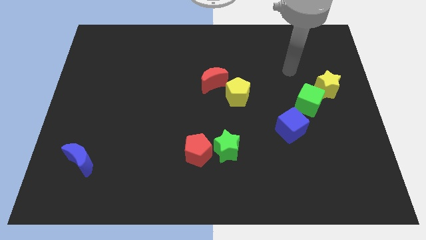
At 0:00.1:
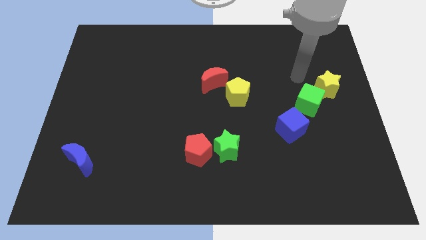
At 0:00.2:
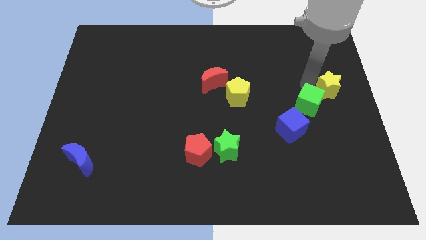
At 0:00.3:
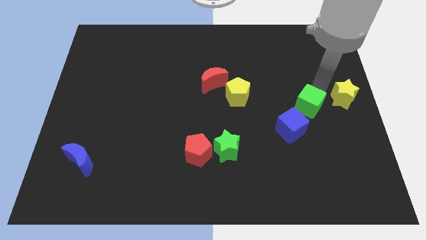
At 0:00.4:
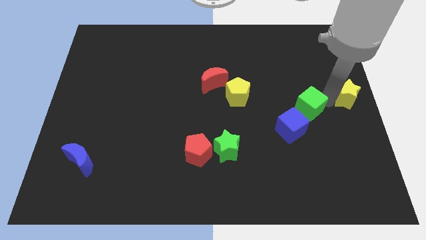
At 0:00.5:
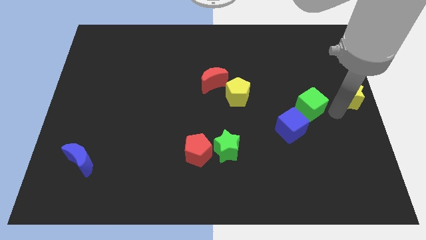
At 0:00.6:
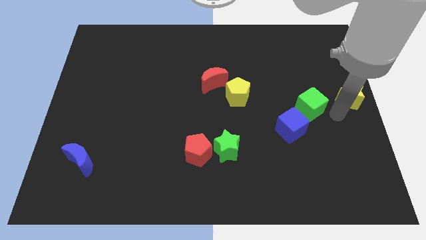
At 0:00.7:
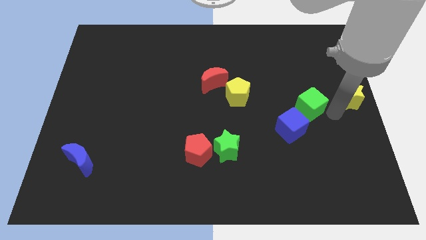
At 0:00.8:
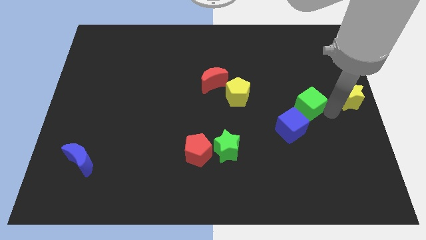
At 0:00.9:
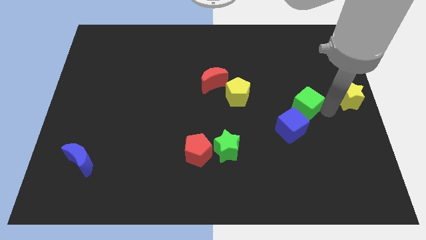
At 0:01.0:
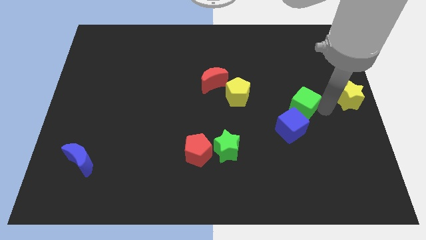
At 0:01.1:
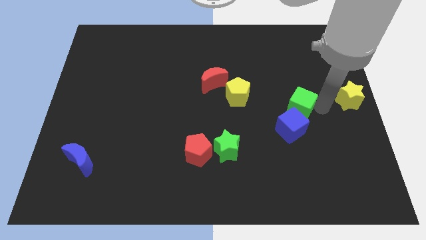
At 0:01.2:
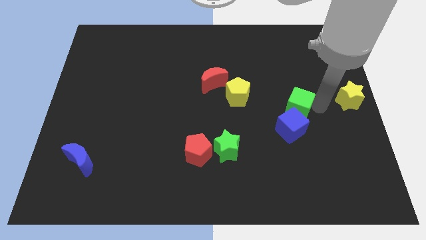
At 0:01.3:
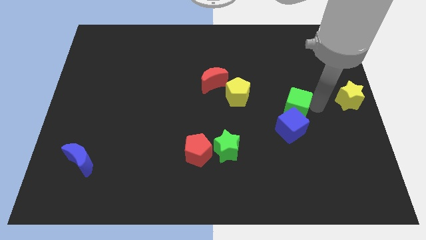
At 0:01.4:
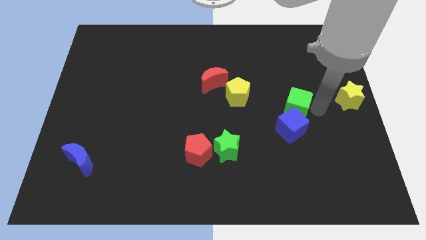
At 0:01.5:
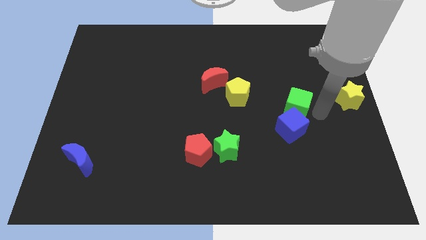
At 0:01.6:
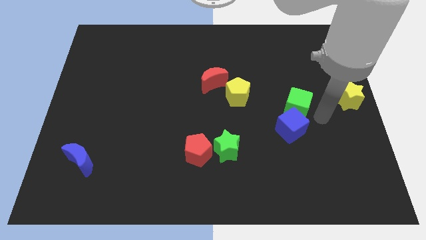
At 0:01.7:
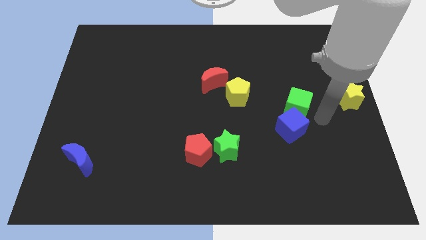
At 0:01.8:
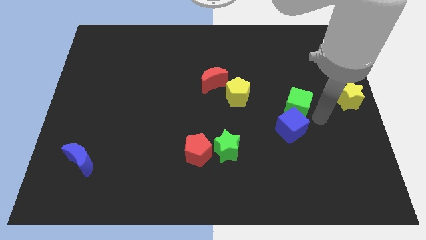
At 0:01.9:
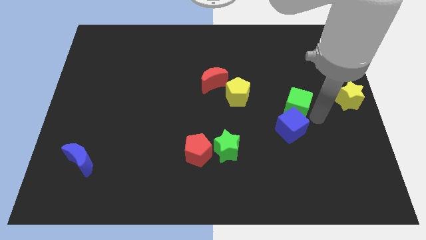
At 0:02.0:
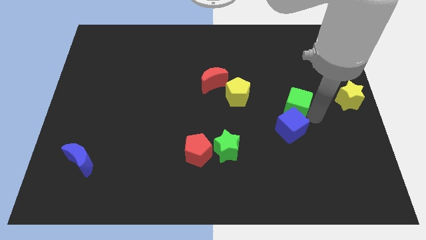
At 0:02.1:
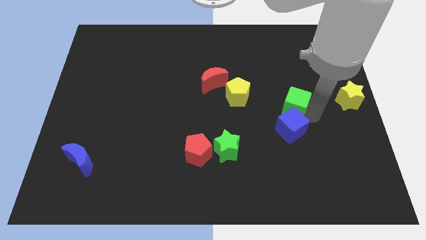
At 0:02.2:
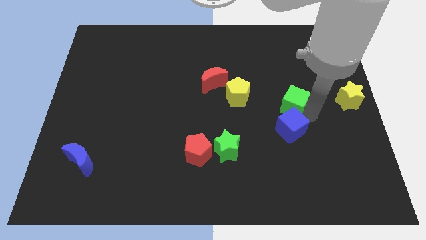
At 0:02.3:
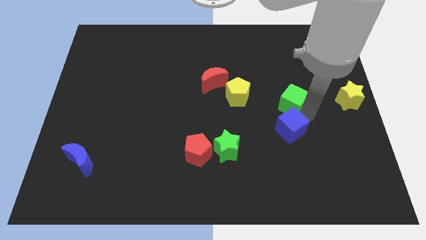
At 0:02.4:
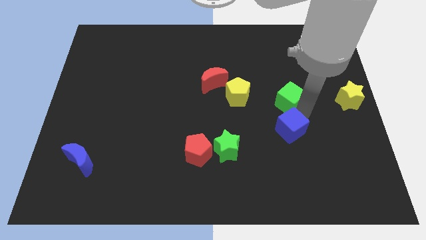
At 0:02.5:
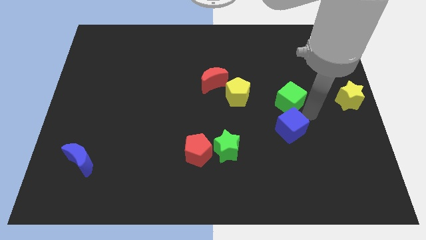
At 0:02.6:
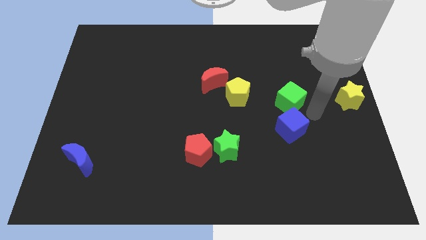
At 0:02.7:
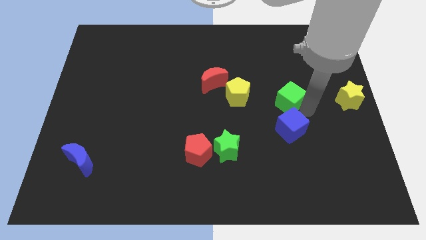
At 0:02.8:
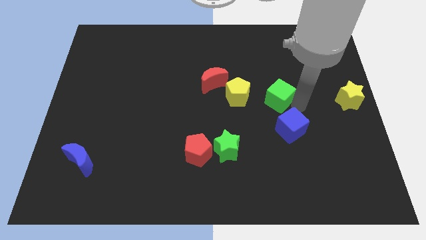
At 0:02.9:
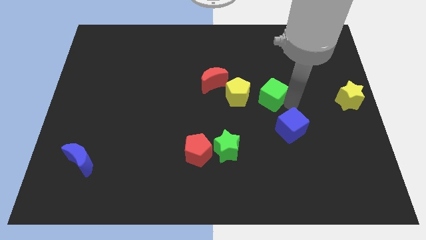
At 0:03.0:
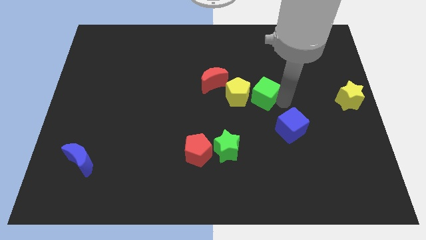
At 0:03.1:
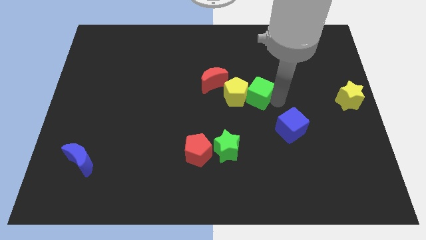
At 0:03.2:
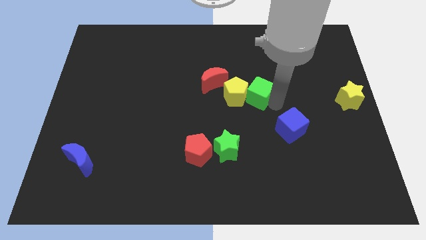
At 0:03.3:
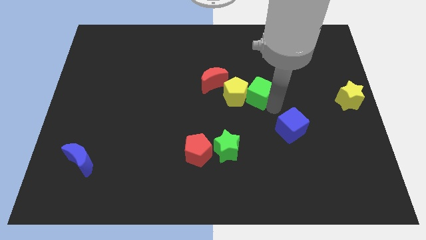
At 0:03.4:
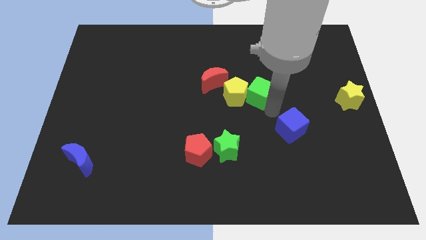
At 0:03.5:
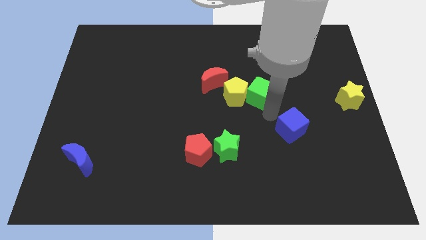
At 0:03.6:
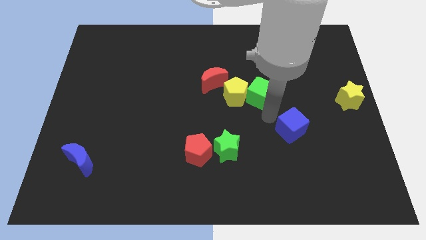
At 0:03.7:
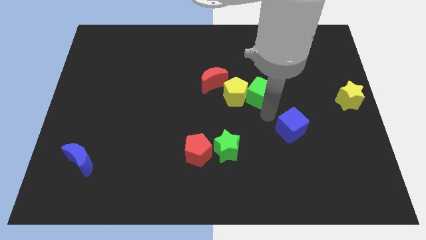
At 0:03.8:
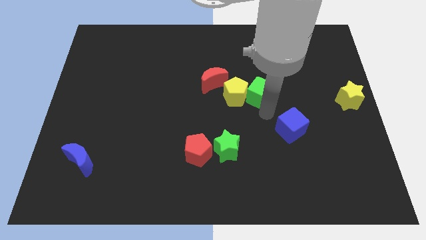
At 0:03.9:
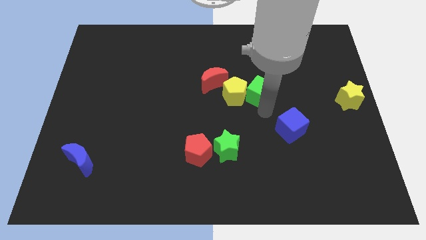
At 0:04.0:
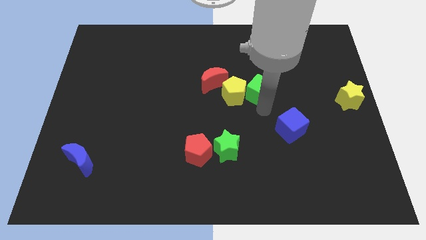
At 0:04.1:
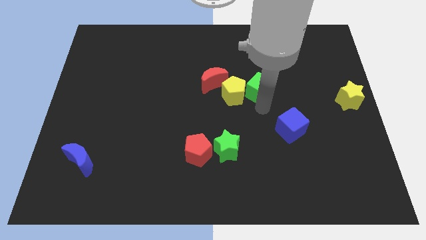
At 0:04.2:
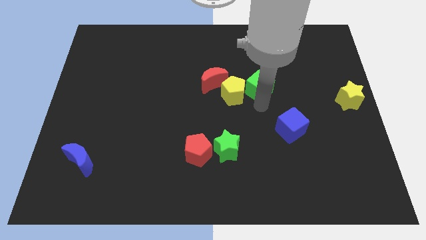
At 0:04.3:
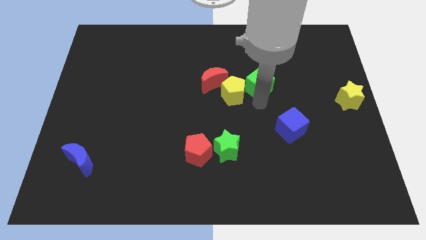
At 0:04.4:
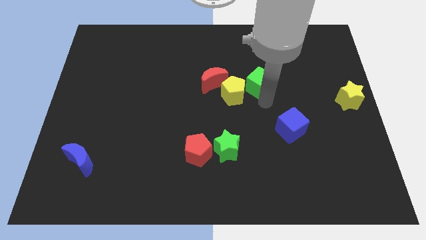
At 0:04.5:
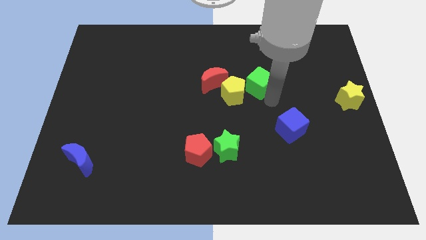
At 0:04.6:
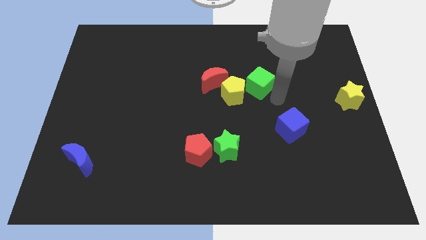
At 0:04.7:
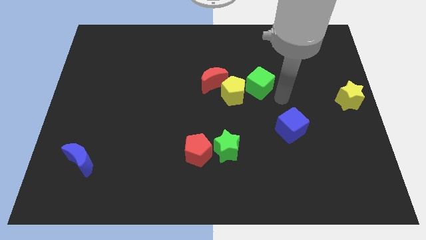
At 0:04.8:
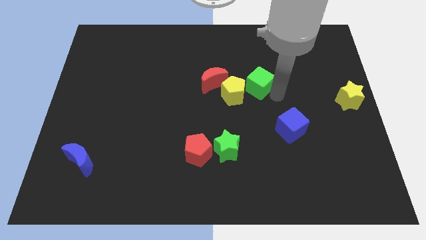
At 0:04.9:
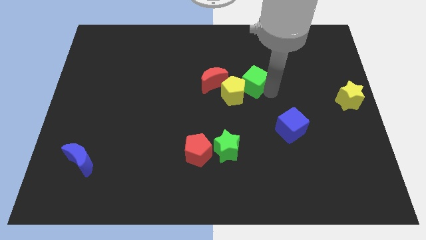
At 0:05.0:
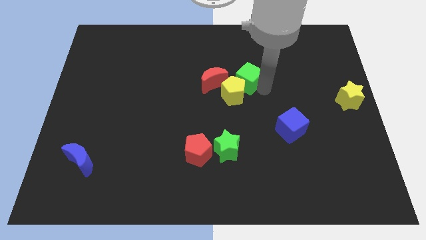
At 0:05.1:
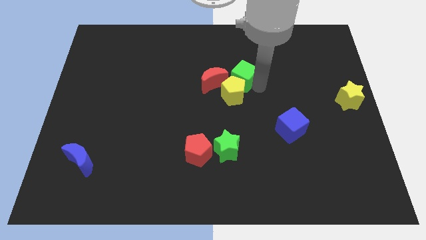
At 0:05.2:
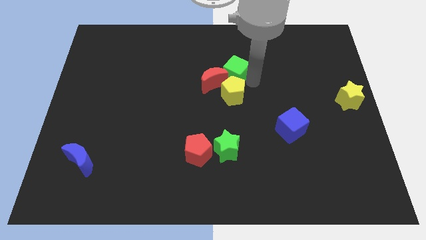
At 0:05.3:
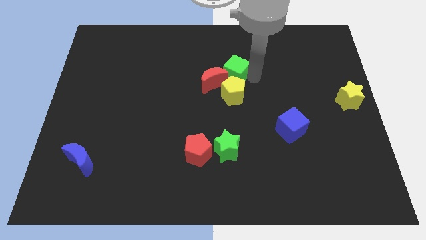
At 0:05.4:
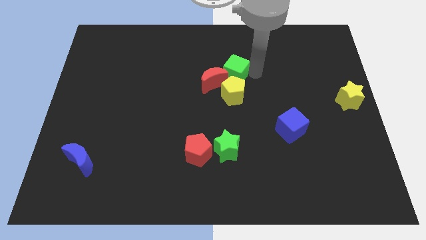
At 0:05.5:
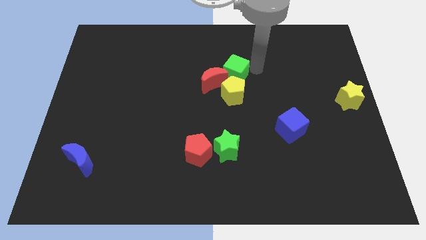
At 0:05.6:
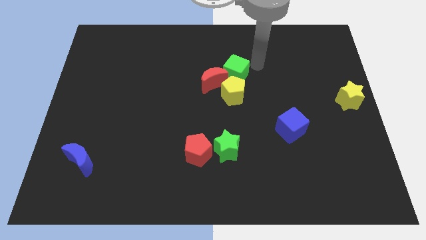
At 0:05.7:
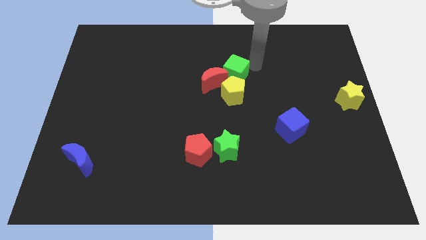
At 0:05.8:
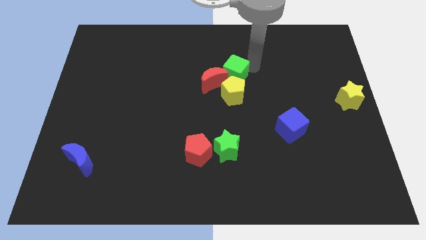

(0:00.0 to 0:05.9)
put the green cube close to the red moon

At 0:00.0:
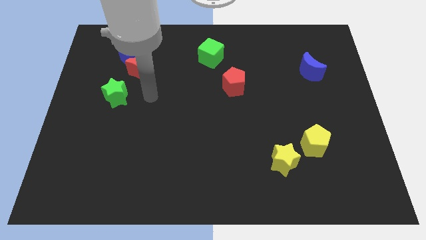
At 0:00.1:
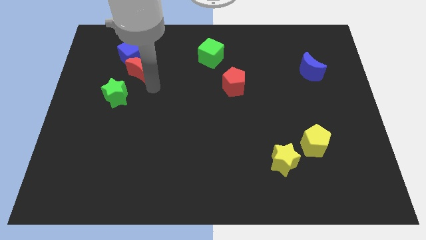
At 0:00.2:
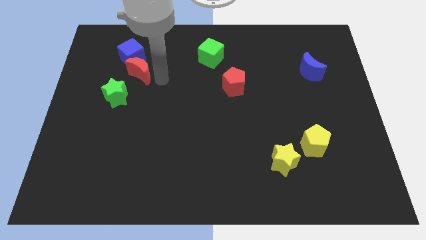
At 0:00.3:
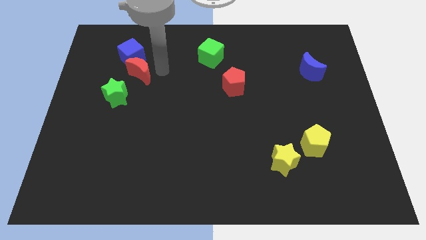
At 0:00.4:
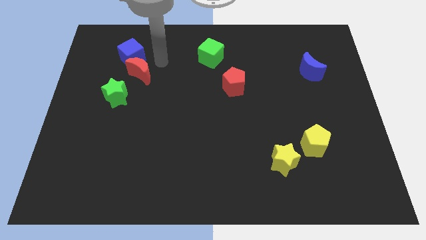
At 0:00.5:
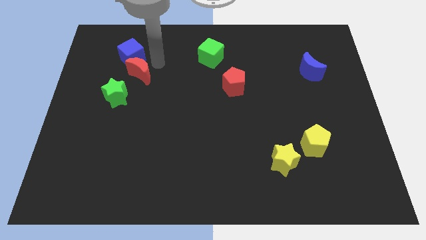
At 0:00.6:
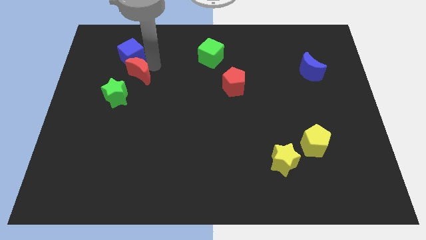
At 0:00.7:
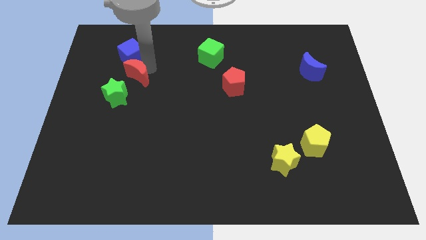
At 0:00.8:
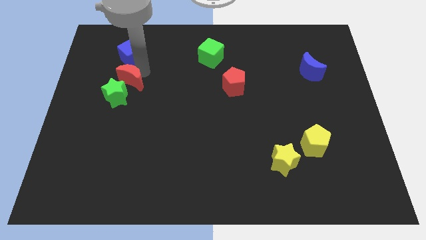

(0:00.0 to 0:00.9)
put the red moon towards the green star
